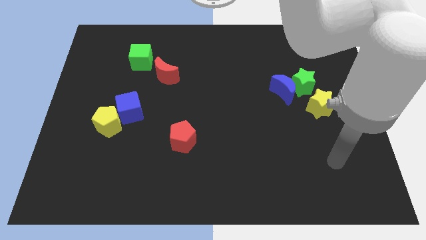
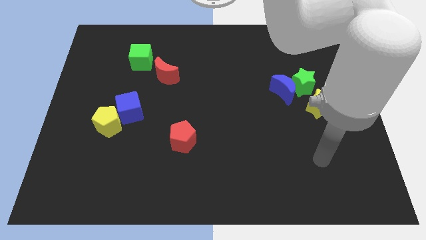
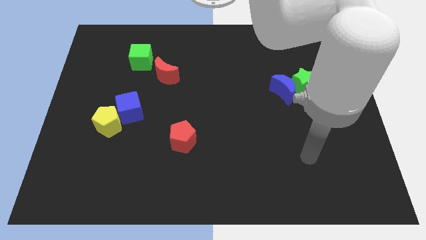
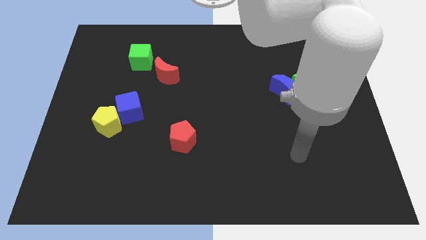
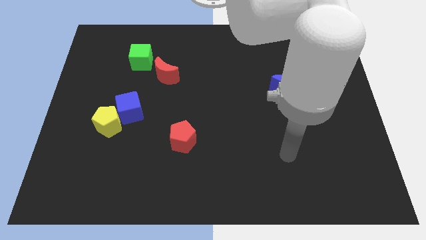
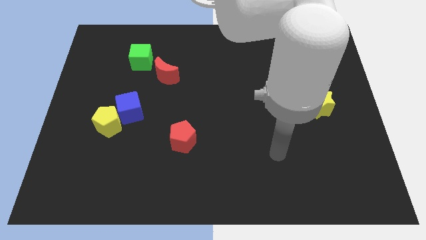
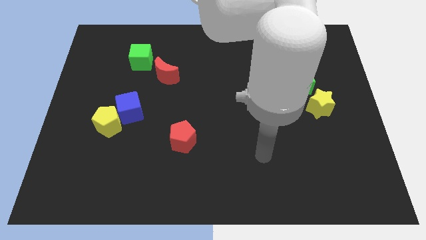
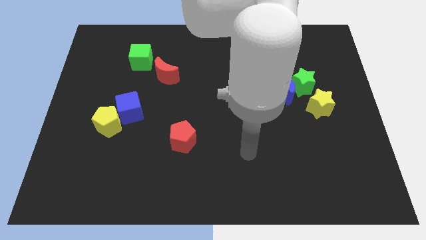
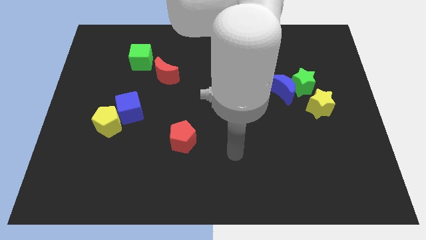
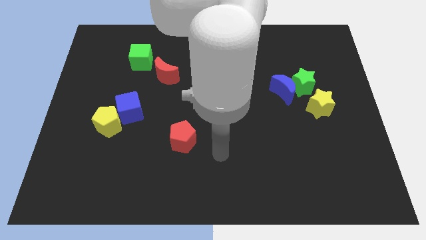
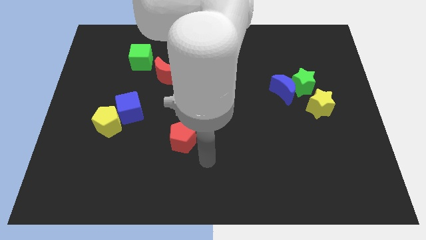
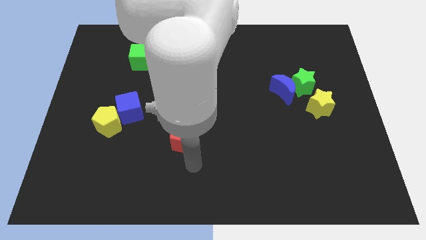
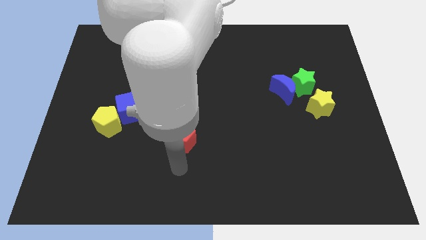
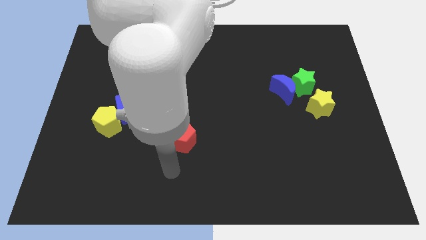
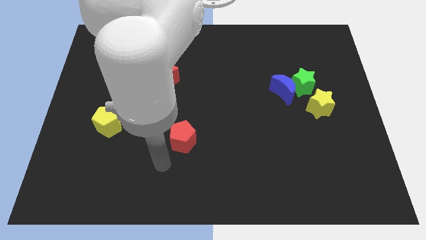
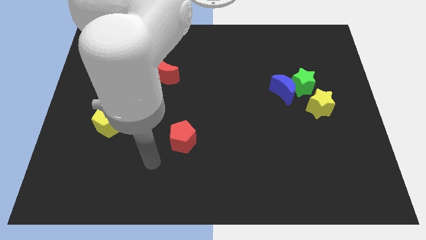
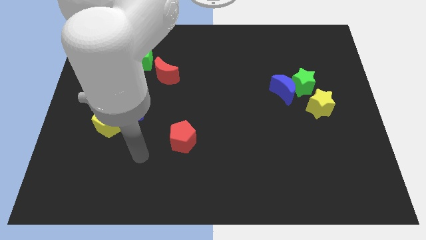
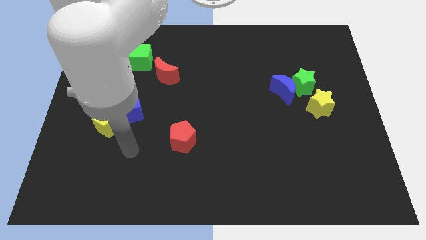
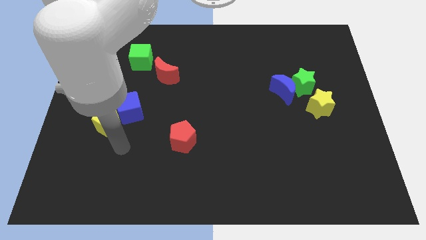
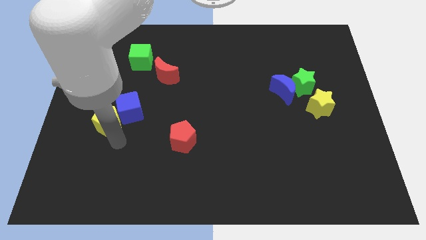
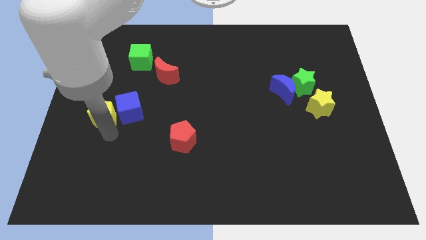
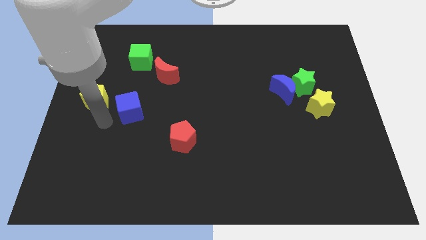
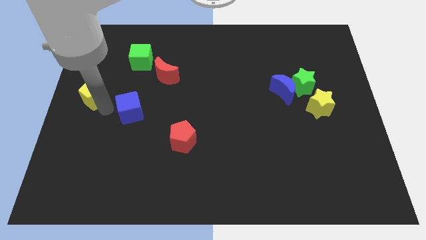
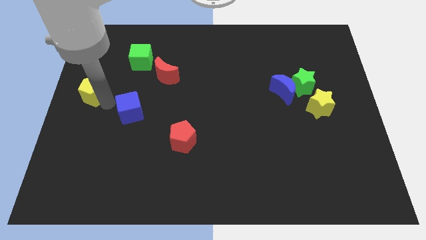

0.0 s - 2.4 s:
pull the blue cube apart from the yellow pentagon

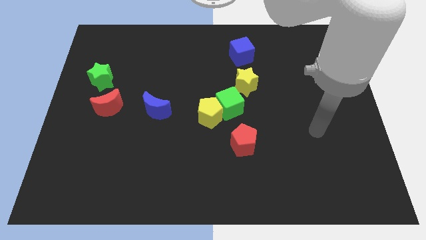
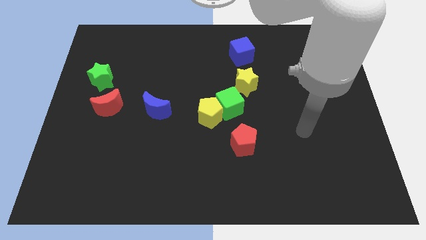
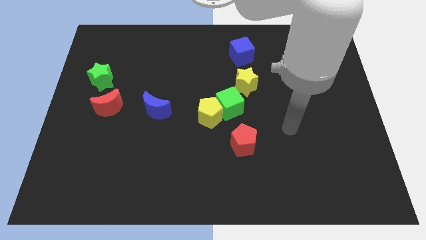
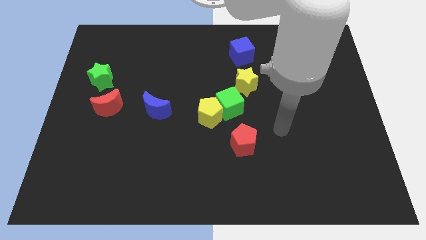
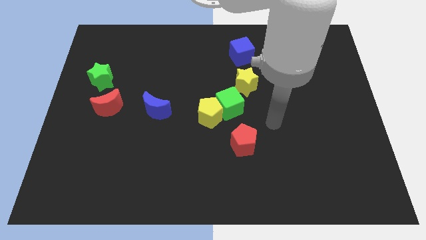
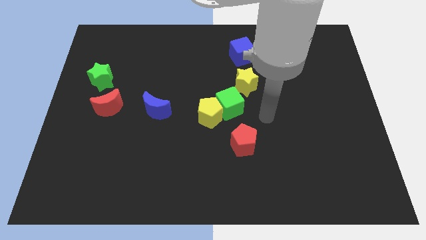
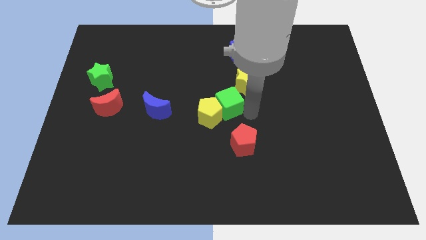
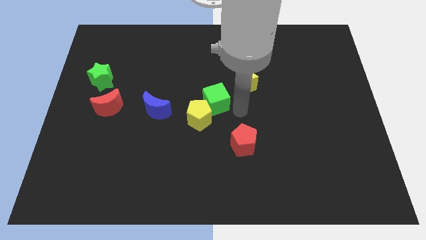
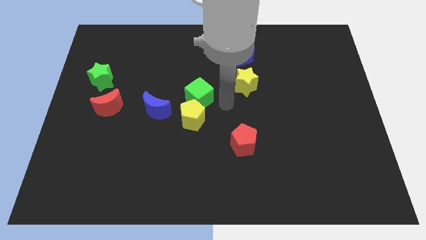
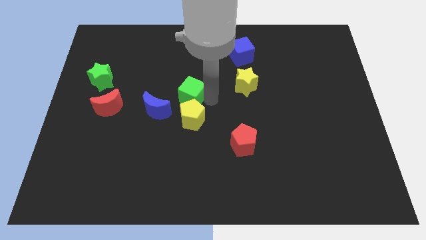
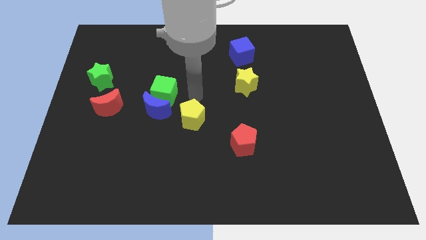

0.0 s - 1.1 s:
pull the yellow pentagon apart from the green cube

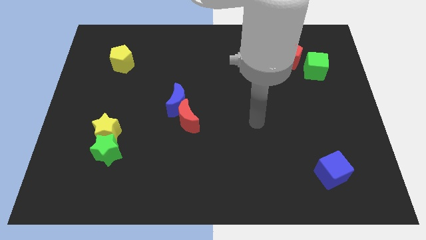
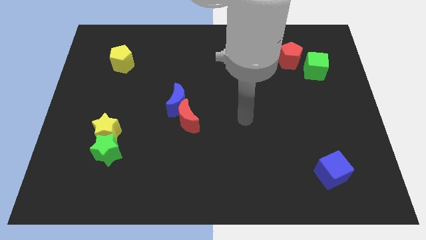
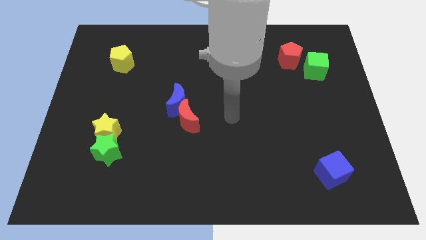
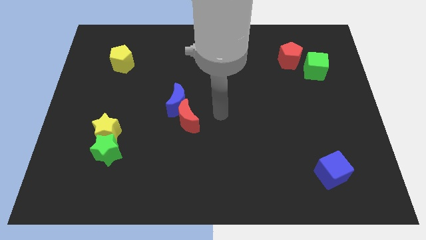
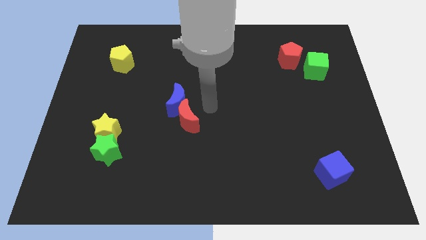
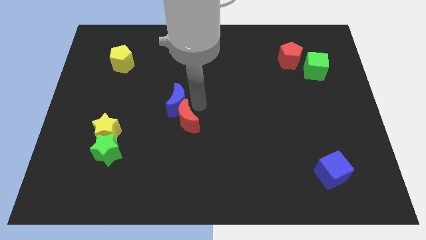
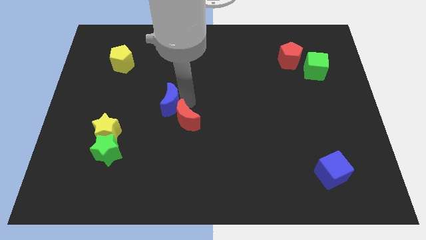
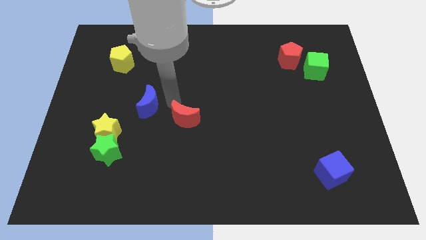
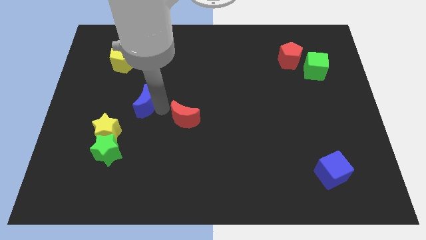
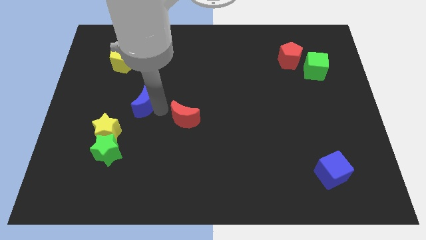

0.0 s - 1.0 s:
move the red moon away from the blue moon

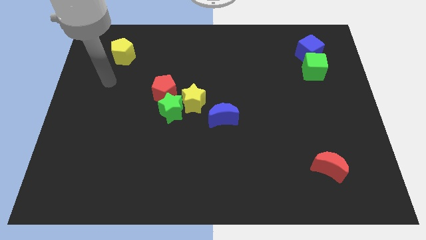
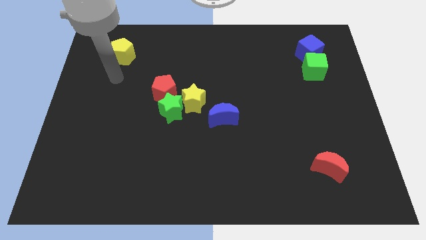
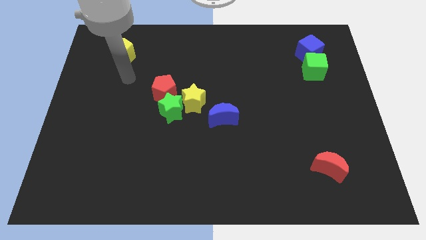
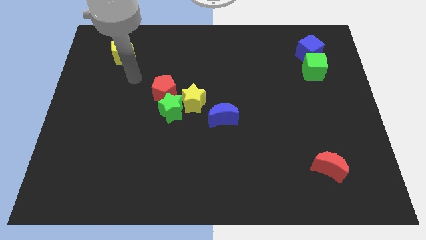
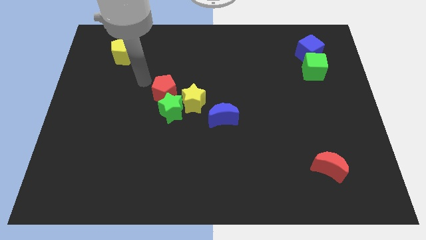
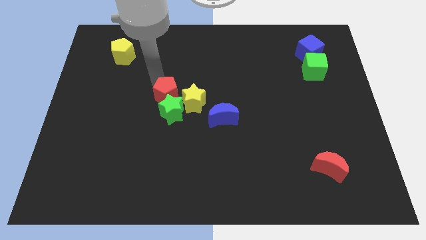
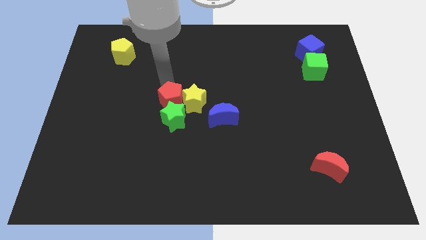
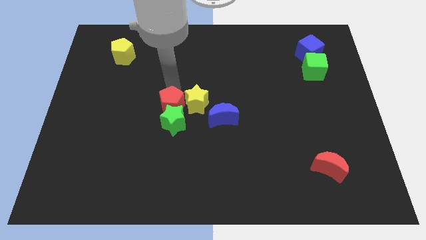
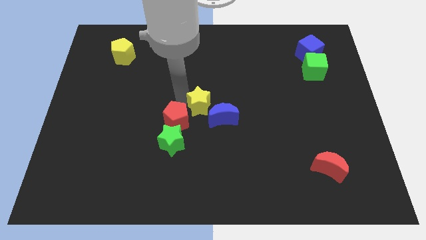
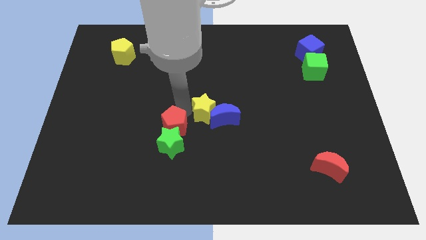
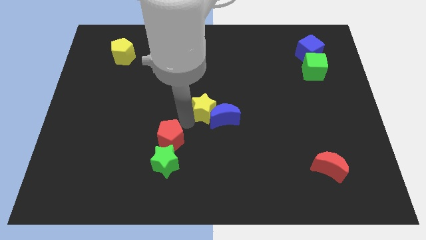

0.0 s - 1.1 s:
separate the green star from the yellow star and red pentagon

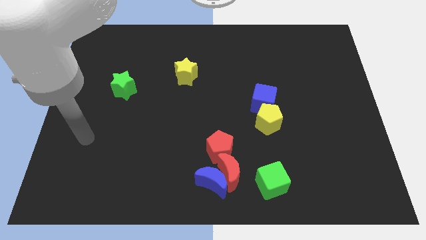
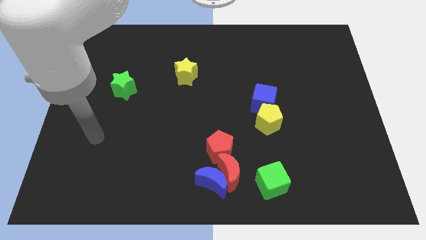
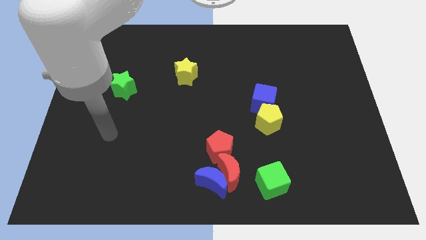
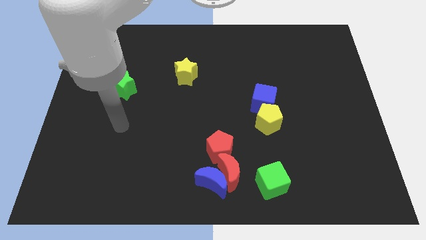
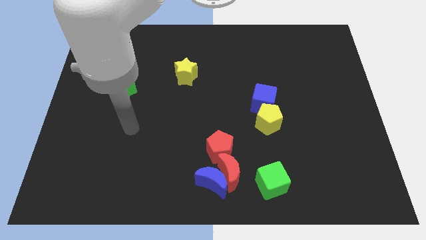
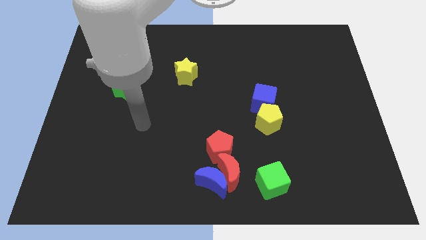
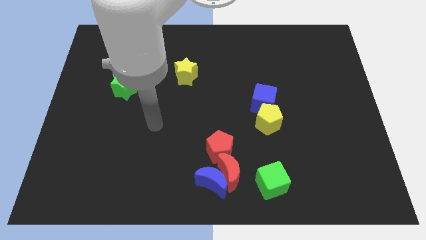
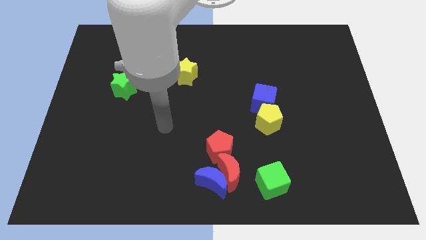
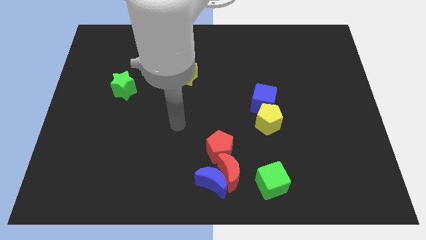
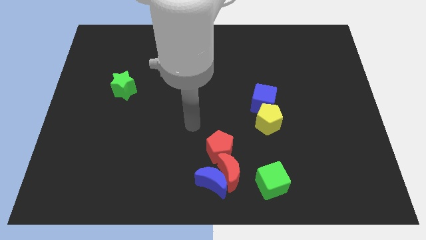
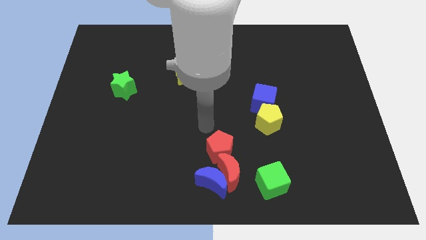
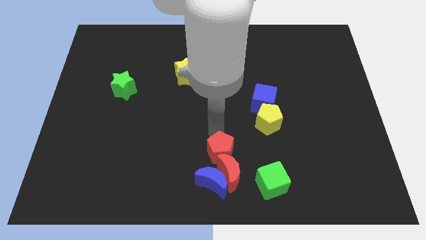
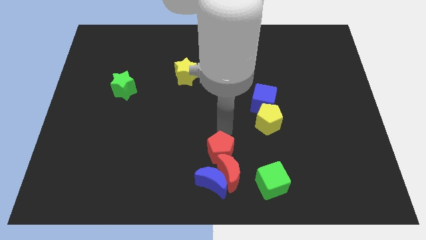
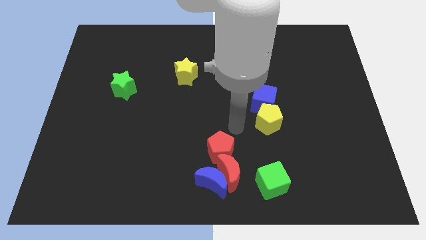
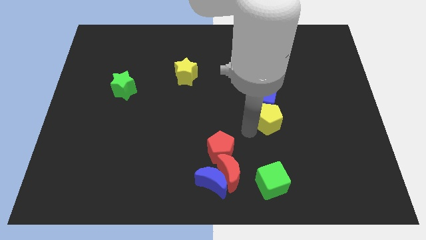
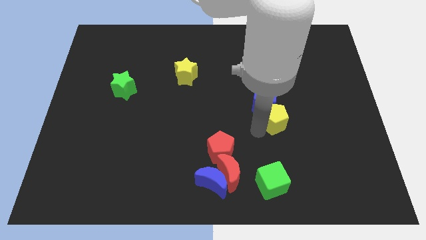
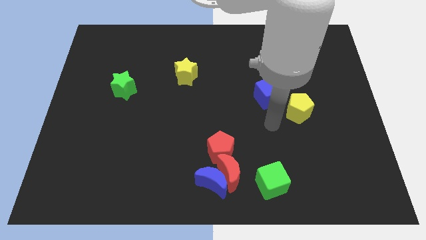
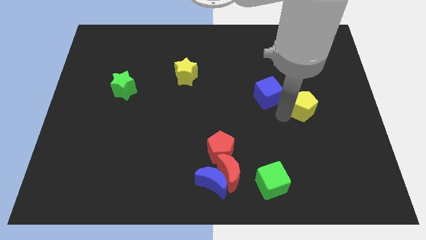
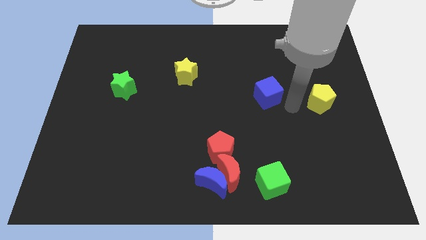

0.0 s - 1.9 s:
move the blue cube away from the yellow pentagon

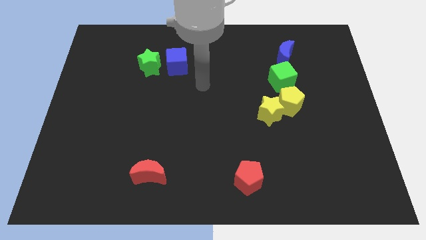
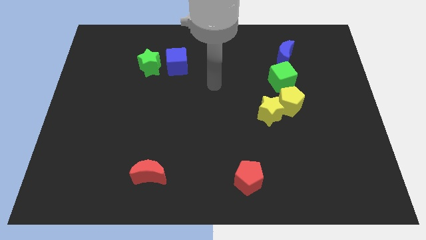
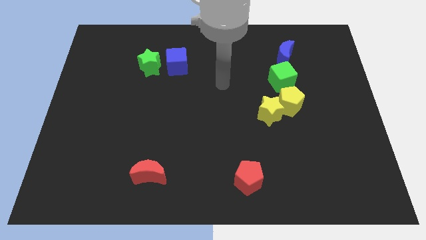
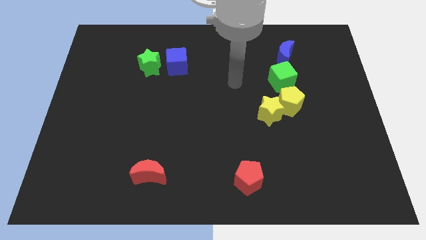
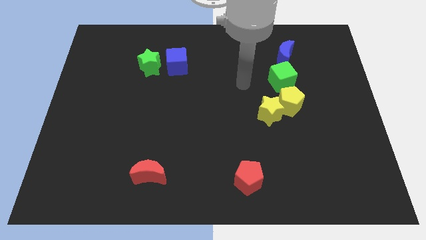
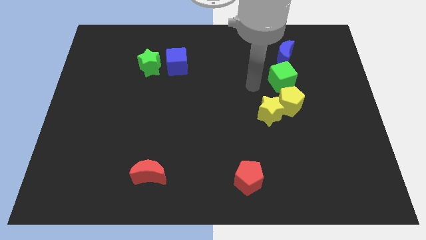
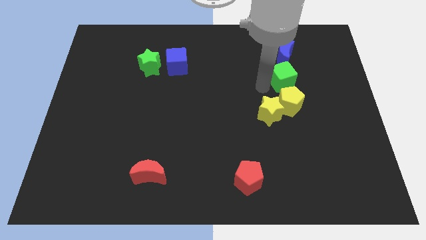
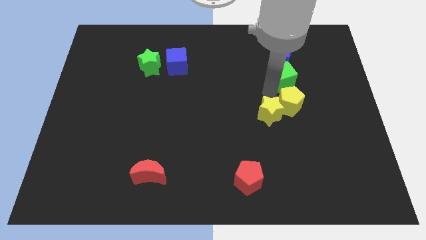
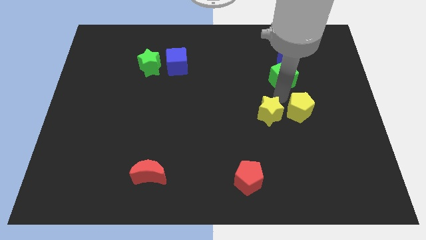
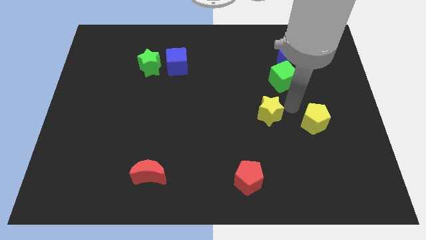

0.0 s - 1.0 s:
separate the yellow star from the yellow pentagon

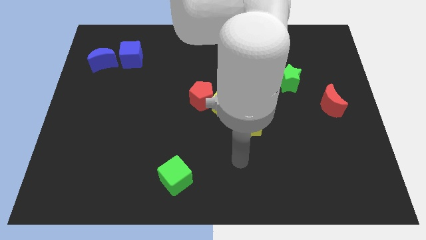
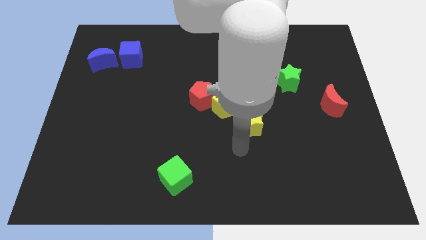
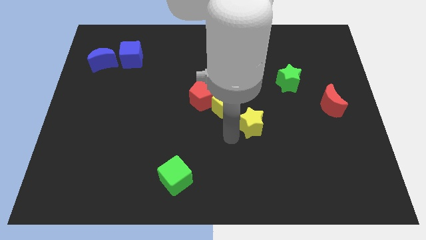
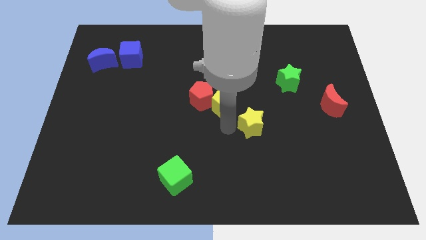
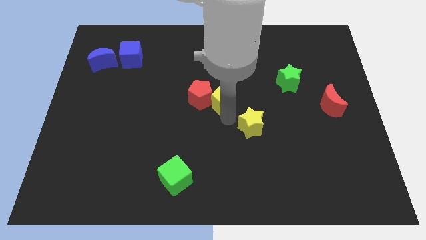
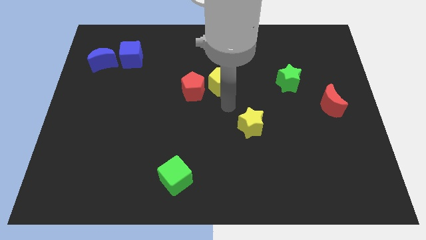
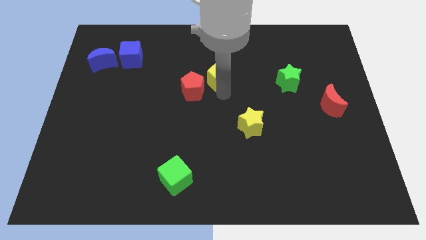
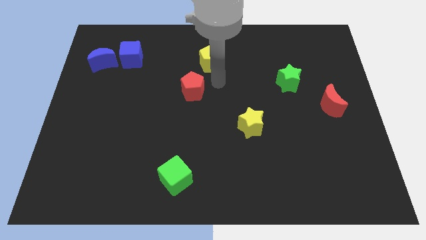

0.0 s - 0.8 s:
pull the red pentagon apart from the yellow pentagon

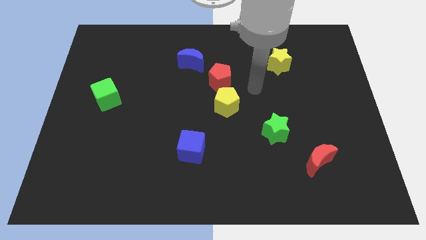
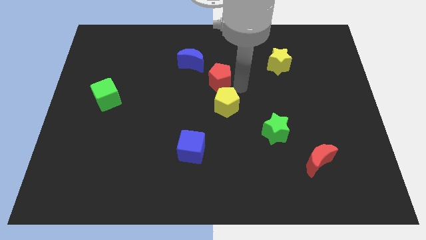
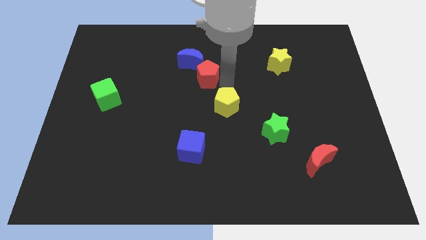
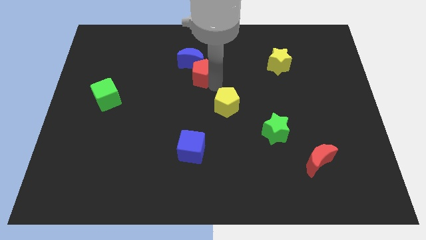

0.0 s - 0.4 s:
move the yellow pentagon away from the red pentagon
